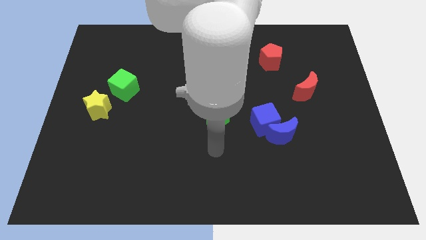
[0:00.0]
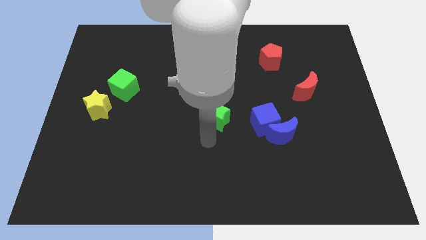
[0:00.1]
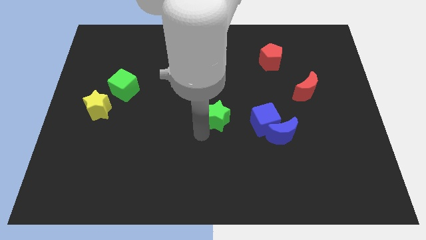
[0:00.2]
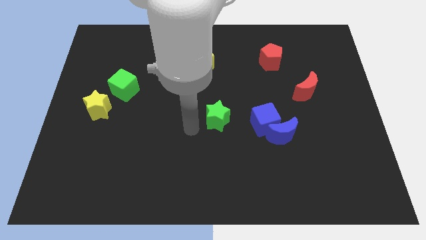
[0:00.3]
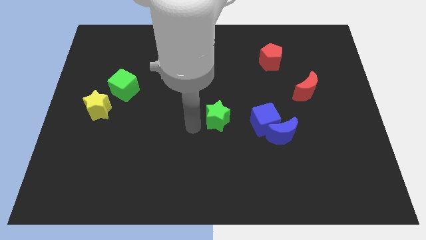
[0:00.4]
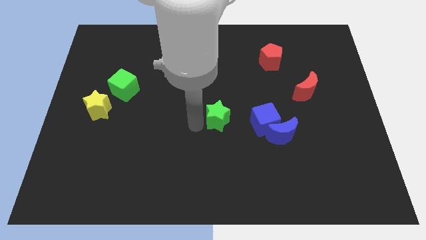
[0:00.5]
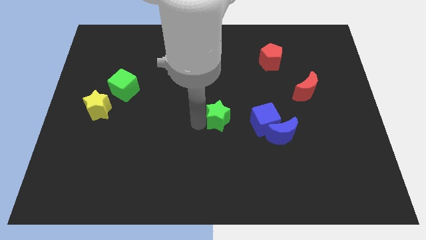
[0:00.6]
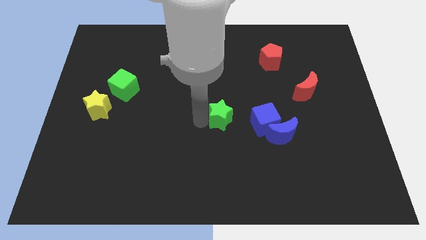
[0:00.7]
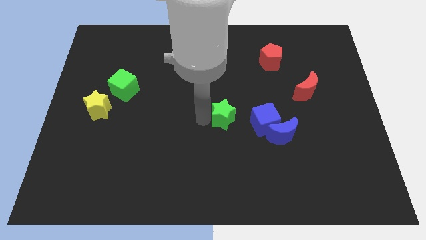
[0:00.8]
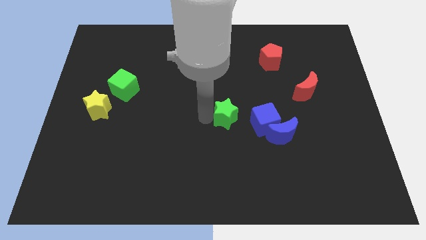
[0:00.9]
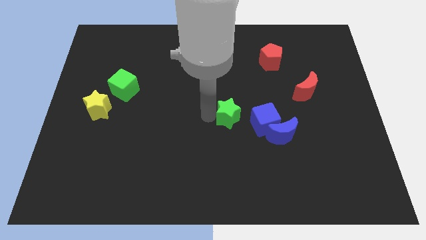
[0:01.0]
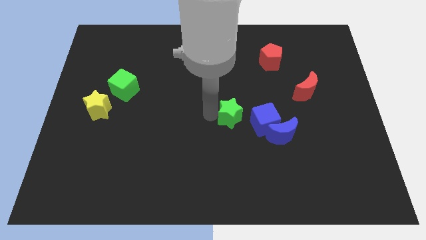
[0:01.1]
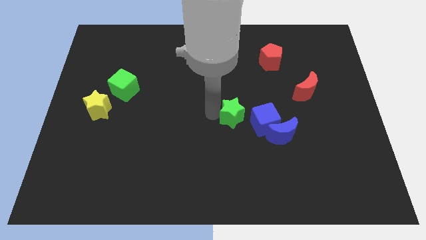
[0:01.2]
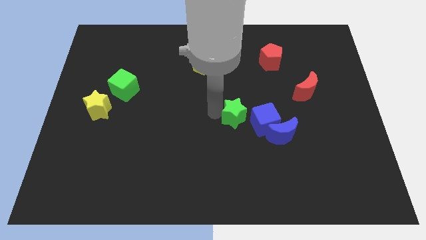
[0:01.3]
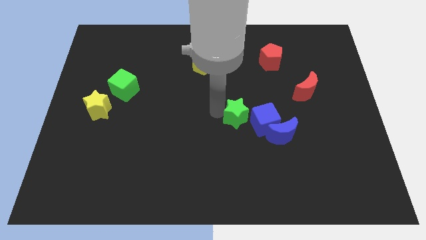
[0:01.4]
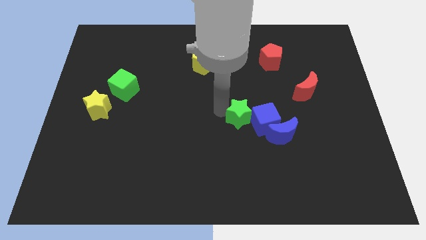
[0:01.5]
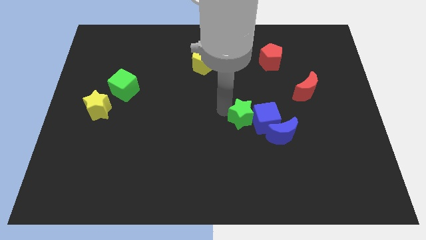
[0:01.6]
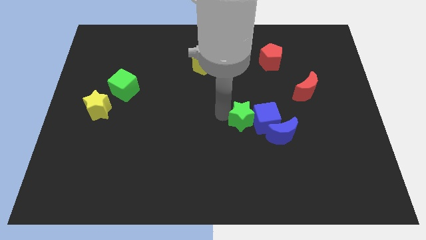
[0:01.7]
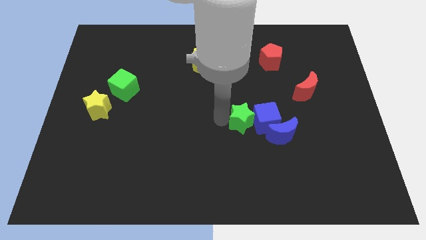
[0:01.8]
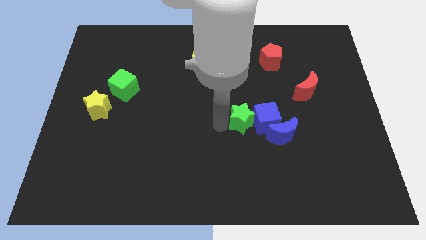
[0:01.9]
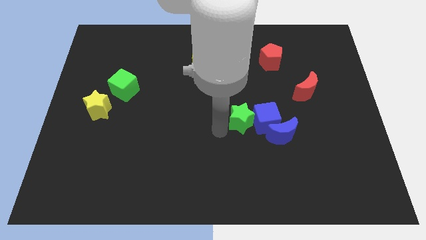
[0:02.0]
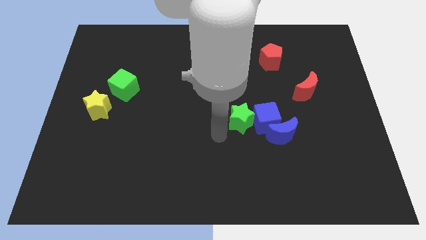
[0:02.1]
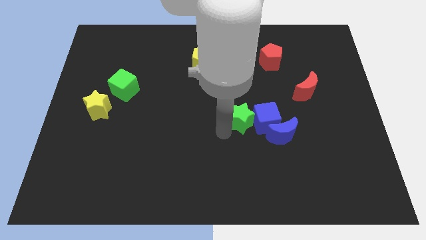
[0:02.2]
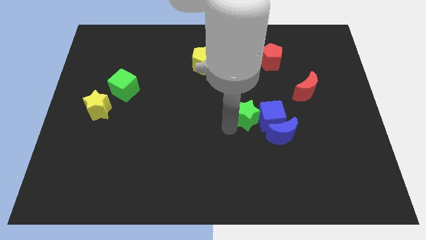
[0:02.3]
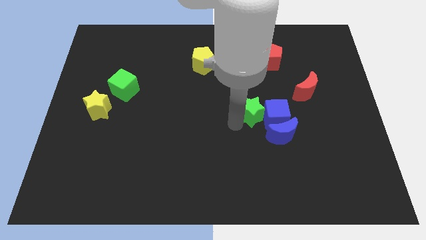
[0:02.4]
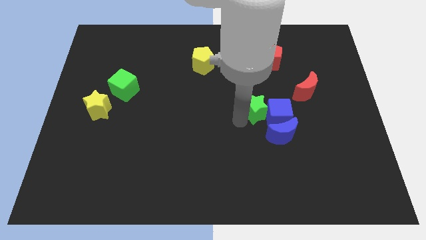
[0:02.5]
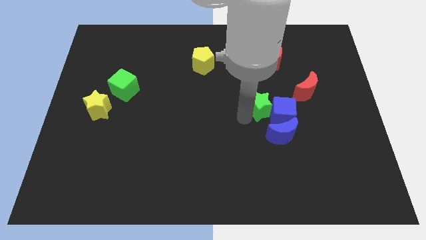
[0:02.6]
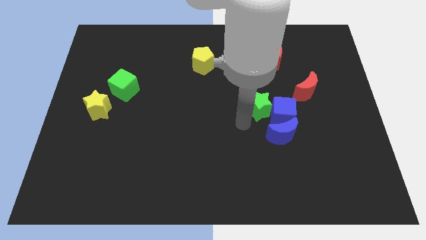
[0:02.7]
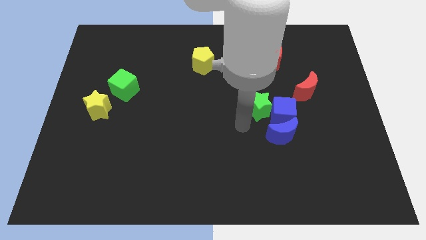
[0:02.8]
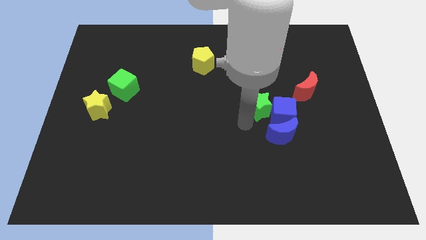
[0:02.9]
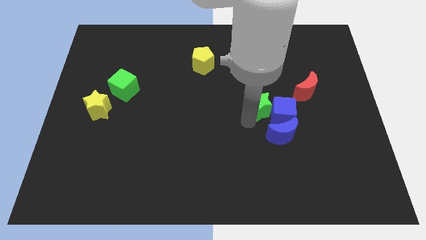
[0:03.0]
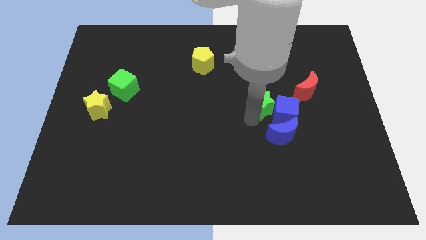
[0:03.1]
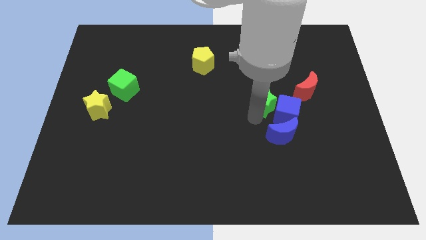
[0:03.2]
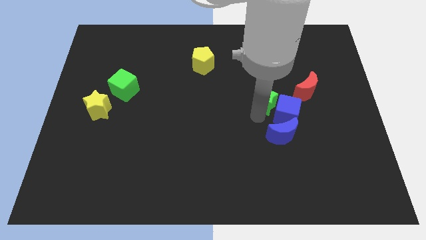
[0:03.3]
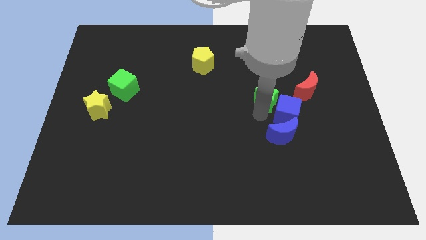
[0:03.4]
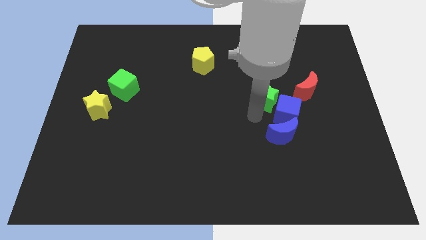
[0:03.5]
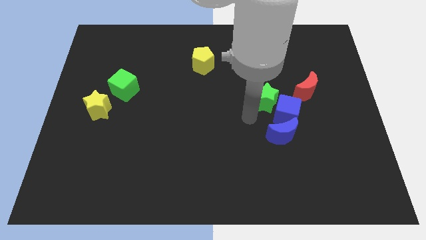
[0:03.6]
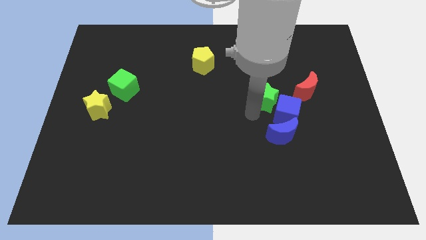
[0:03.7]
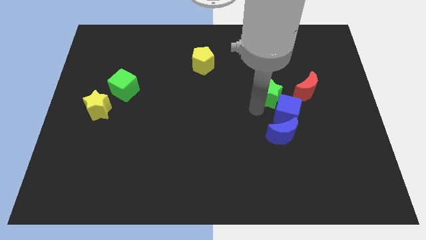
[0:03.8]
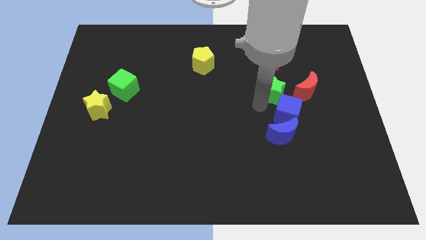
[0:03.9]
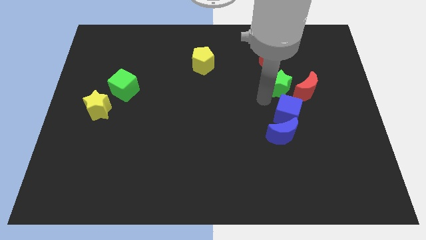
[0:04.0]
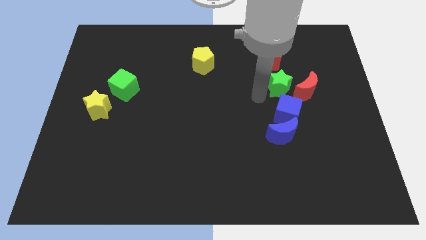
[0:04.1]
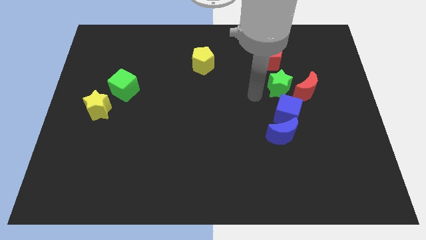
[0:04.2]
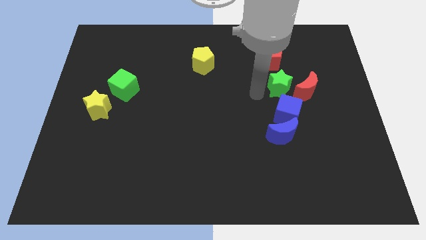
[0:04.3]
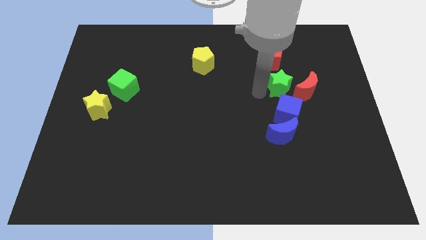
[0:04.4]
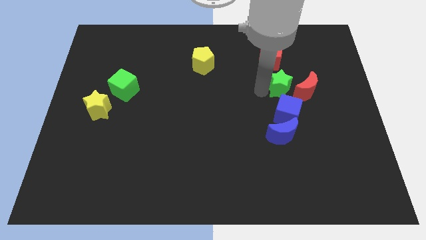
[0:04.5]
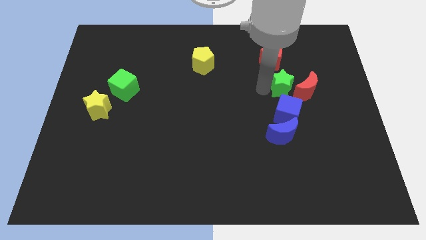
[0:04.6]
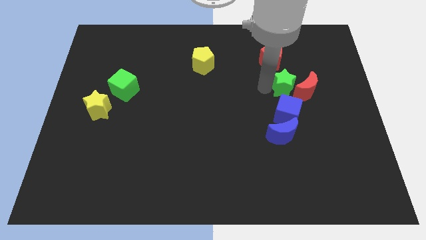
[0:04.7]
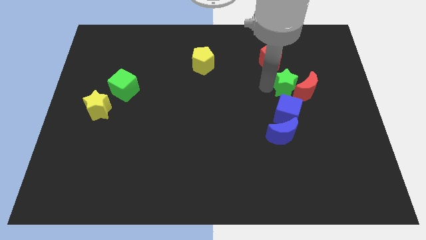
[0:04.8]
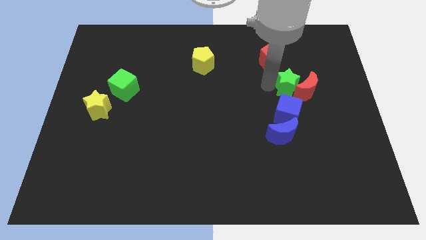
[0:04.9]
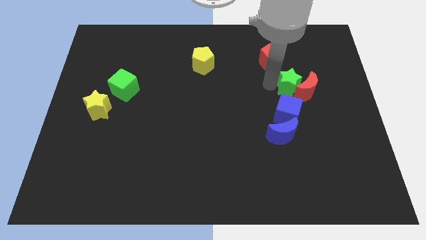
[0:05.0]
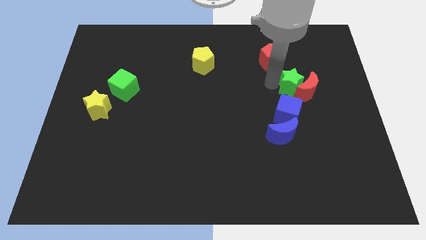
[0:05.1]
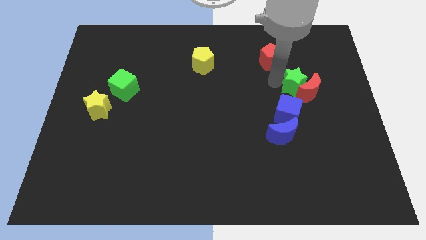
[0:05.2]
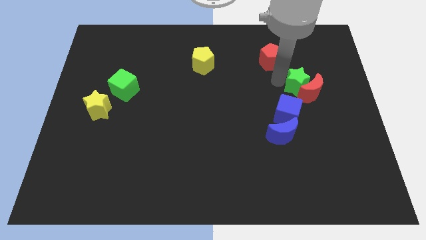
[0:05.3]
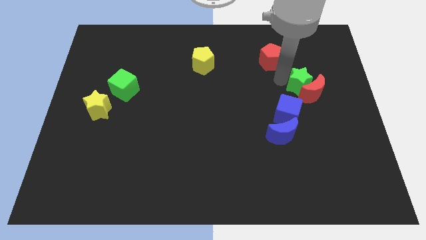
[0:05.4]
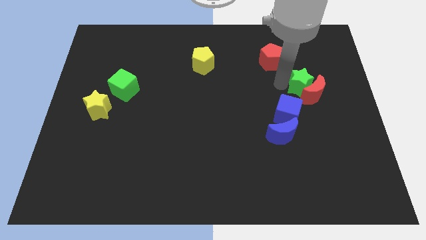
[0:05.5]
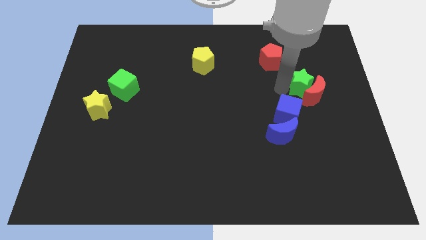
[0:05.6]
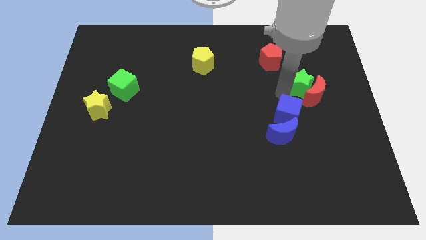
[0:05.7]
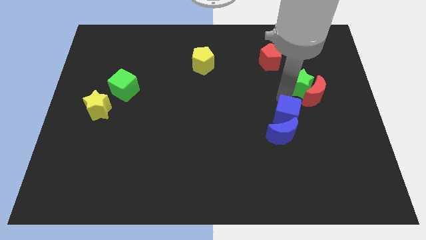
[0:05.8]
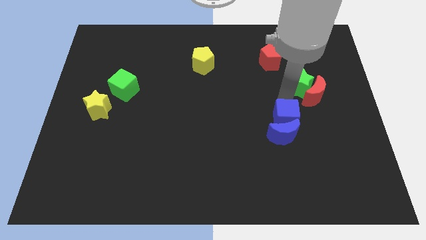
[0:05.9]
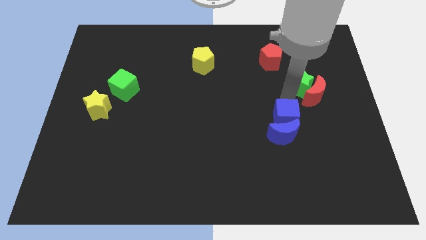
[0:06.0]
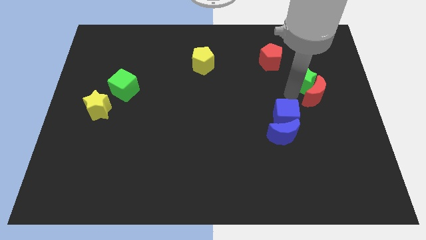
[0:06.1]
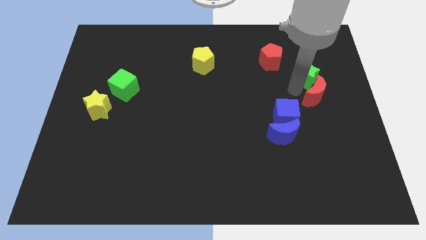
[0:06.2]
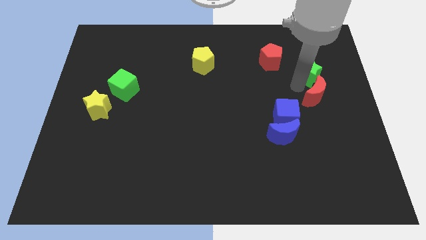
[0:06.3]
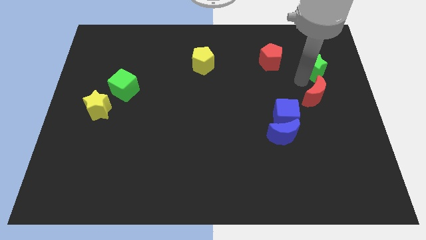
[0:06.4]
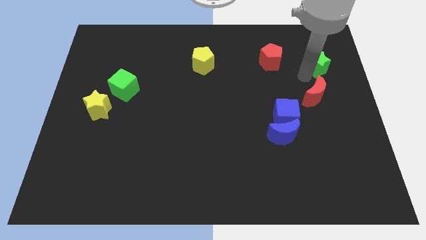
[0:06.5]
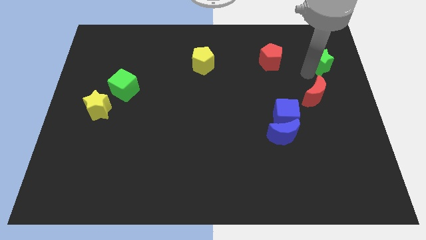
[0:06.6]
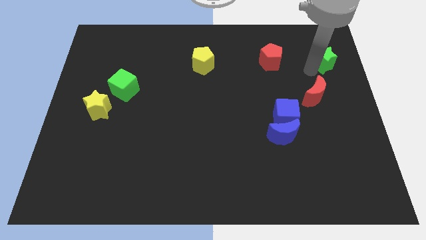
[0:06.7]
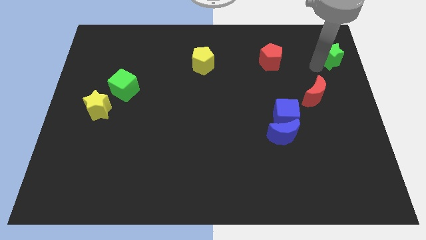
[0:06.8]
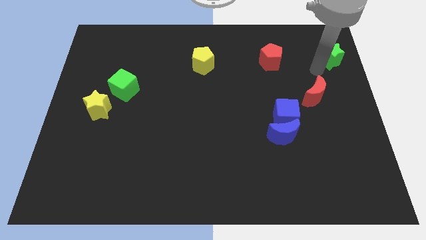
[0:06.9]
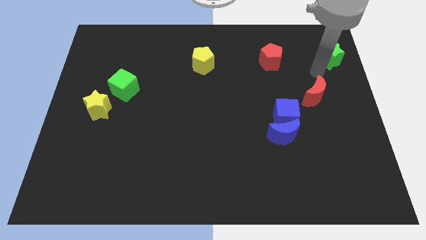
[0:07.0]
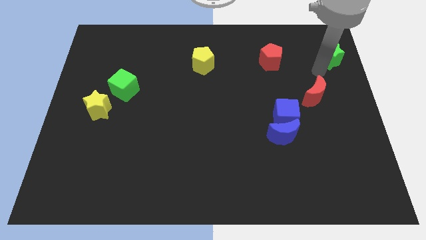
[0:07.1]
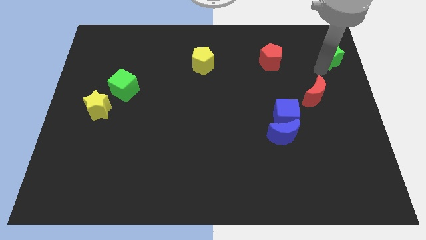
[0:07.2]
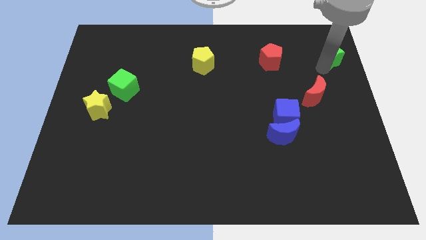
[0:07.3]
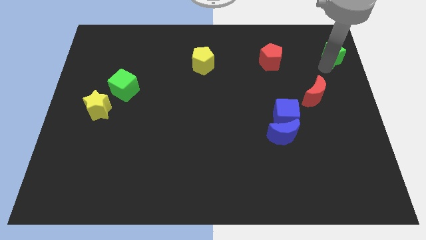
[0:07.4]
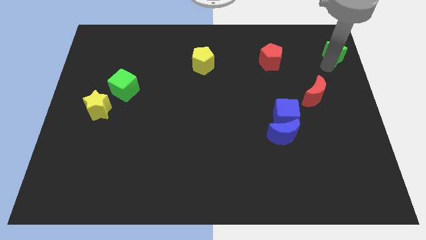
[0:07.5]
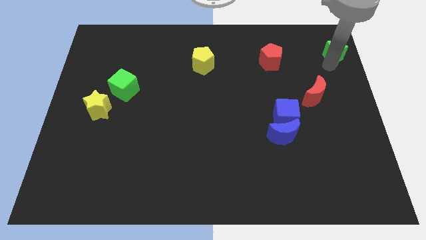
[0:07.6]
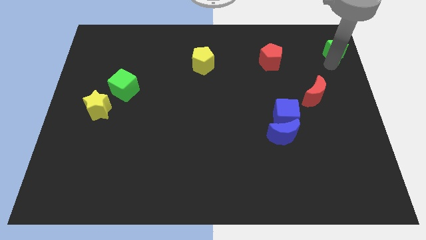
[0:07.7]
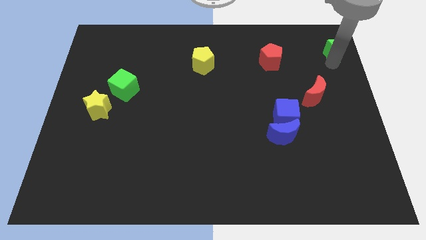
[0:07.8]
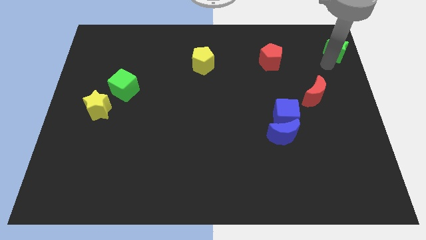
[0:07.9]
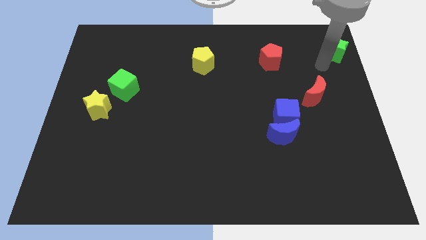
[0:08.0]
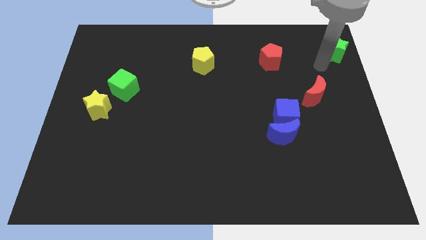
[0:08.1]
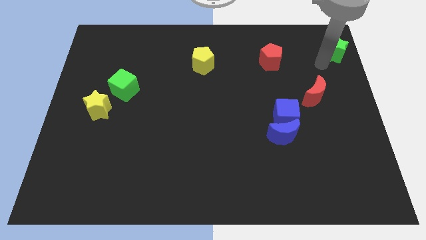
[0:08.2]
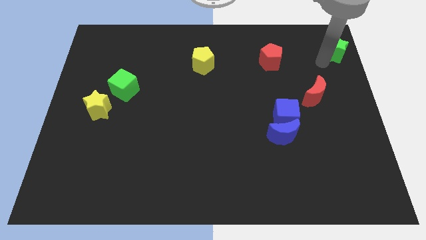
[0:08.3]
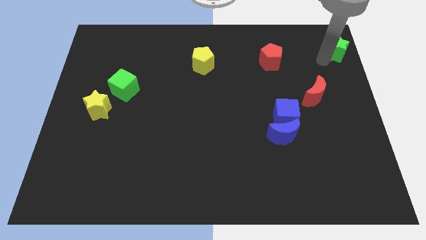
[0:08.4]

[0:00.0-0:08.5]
slide the green star to the top right of the board
